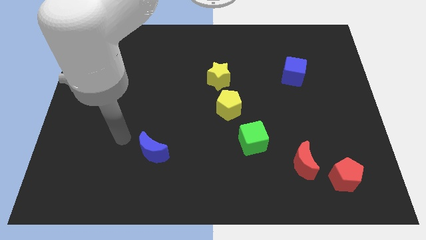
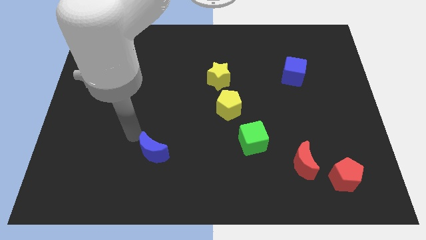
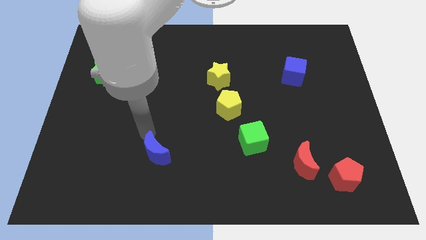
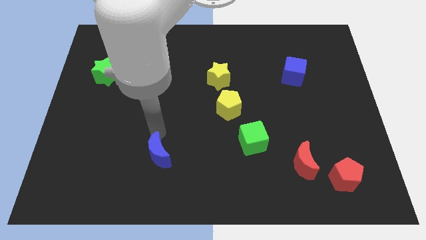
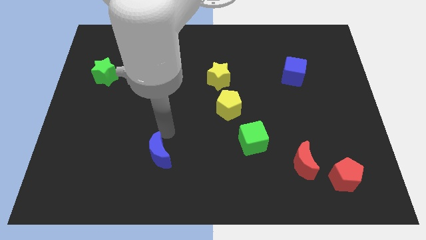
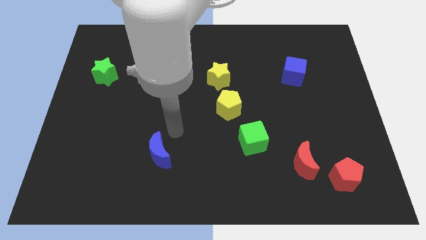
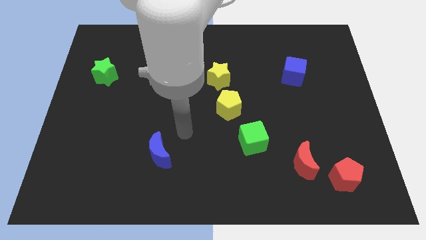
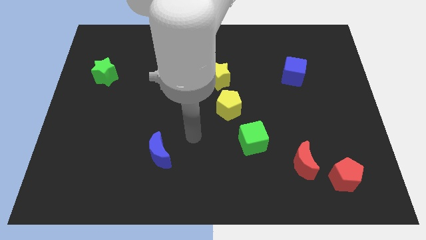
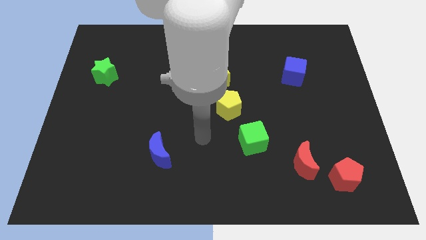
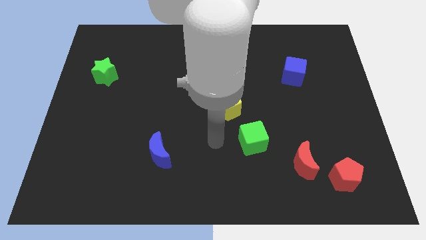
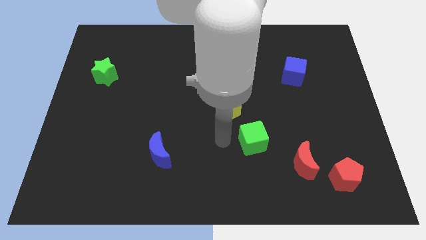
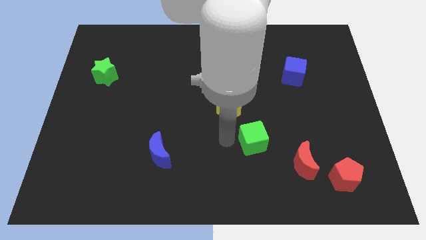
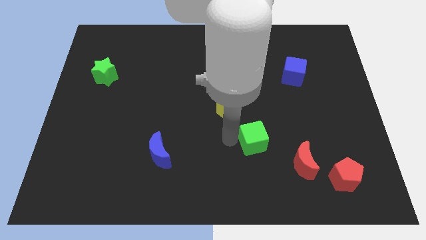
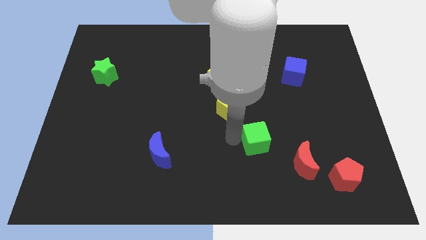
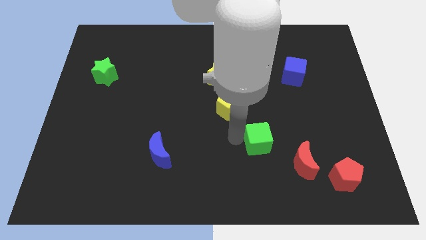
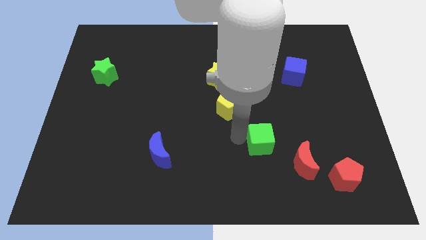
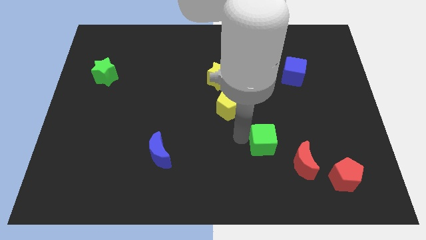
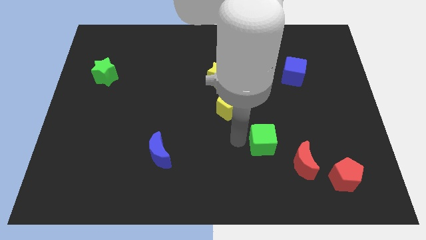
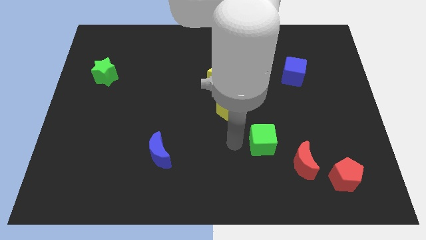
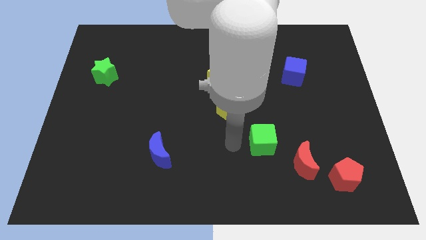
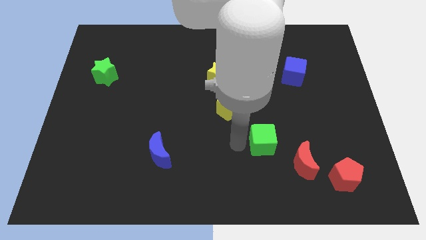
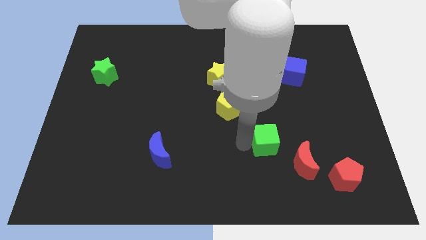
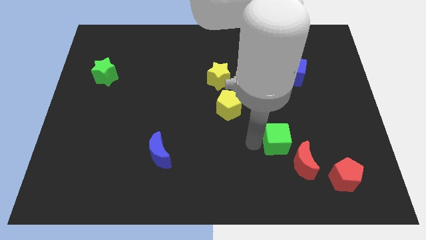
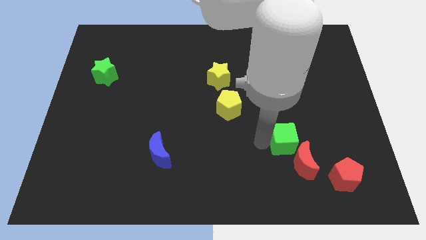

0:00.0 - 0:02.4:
slightly push the green cube to the right

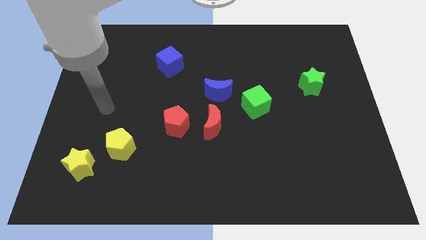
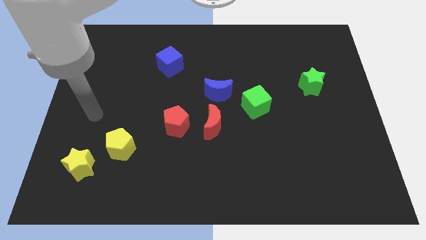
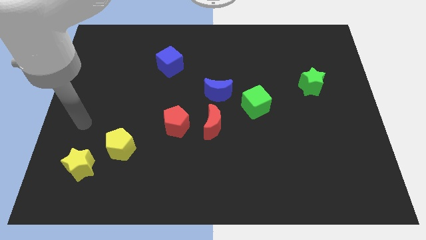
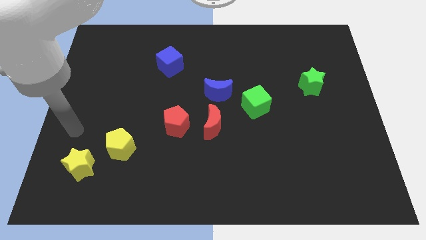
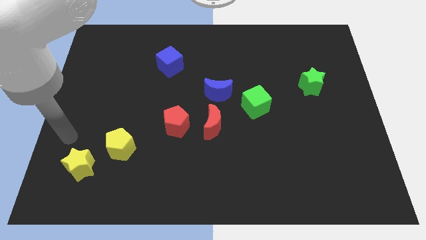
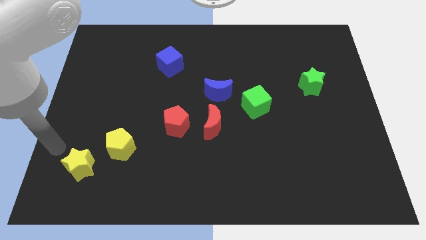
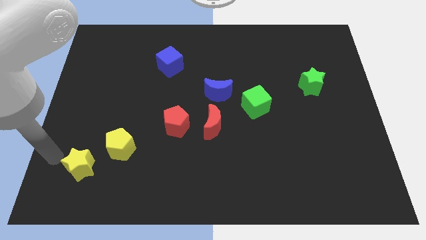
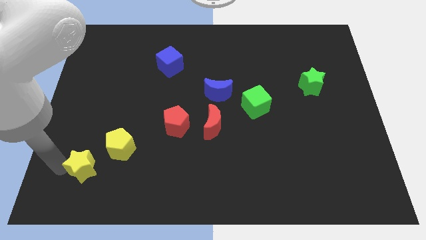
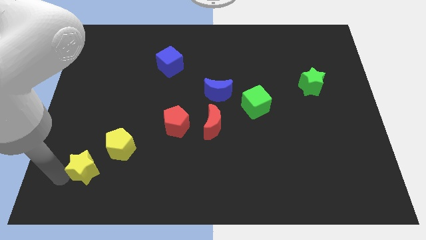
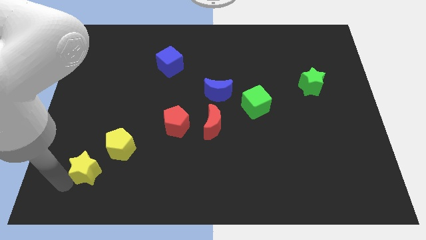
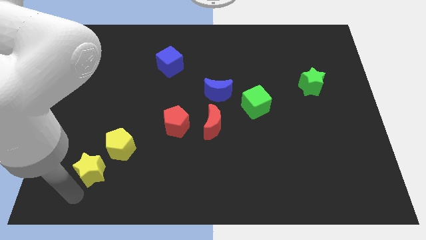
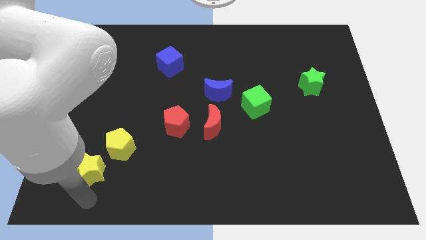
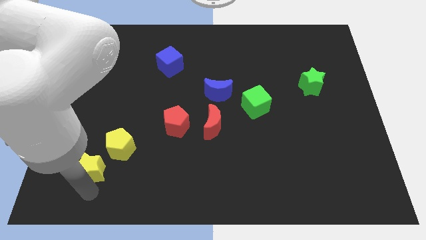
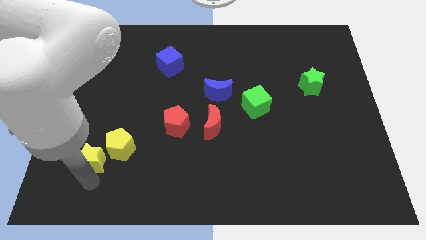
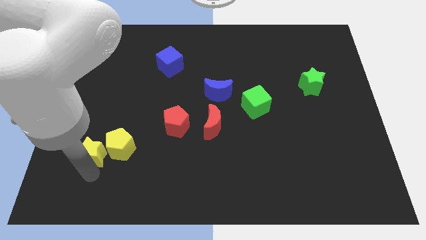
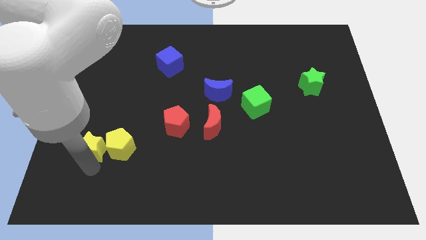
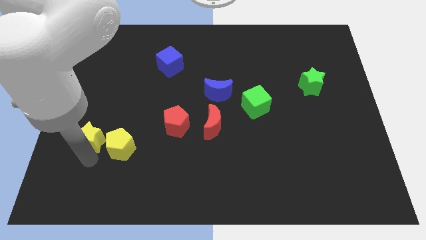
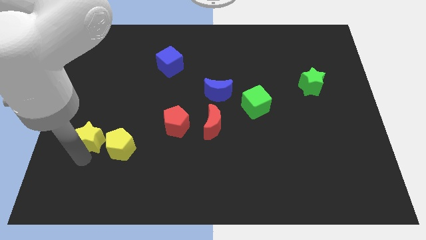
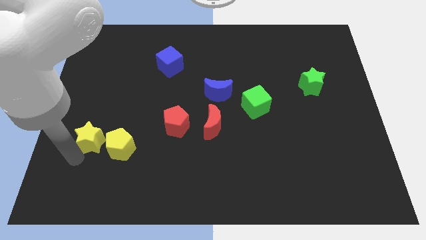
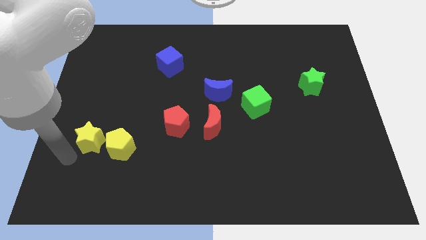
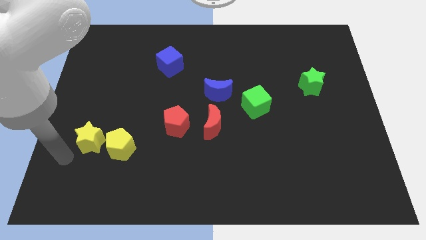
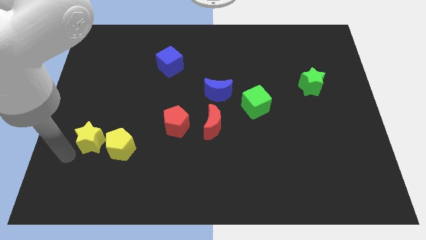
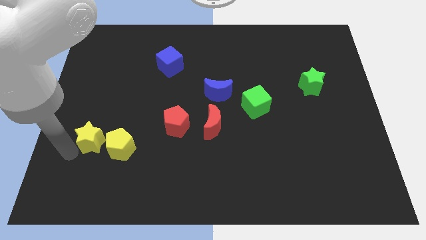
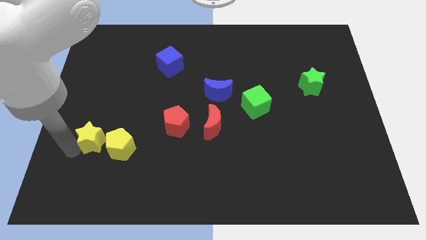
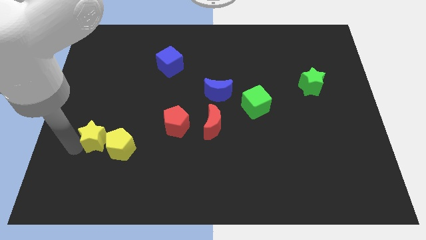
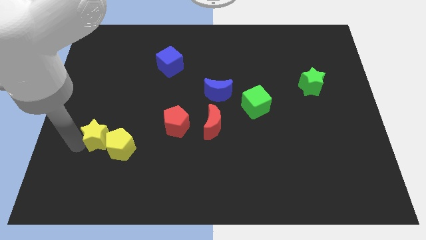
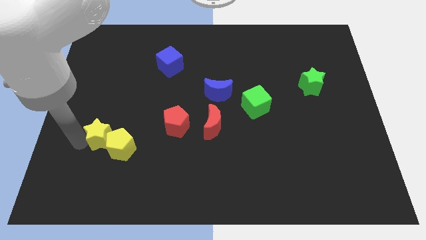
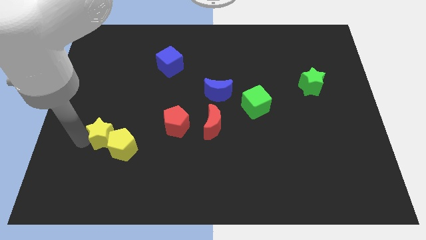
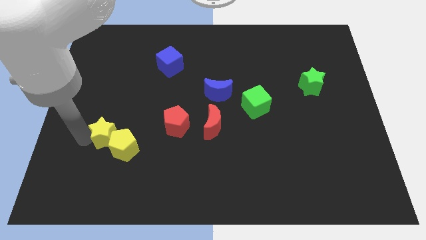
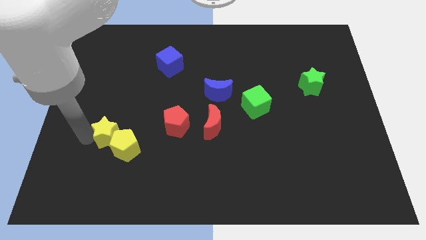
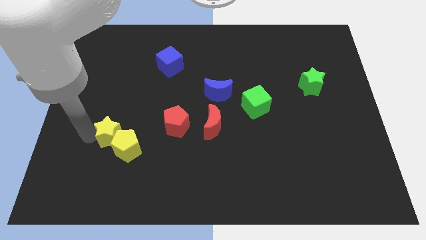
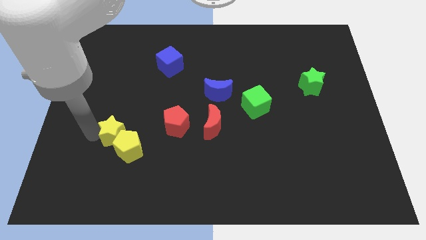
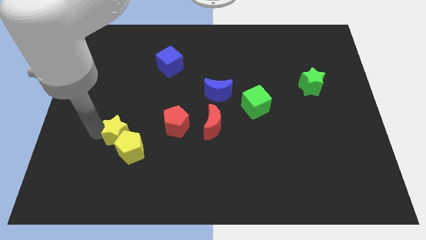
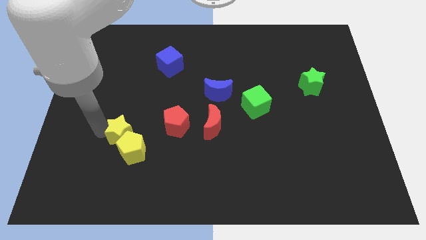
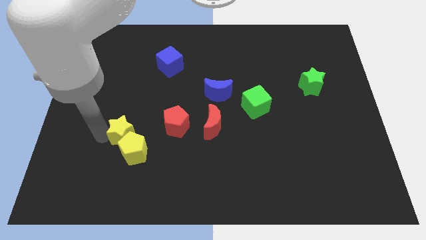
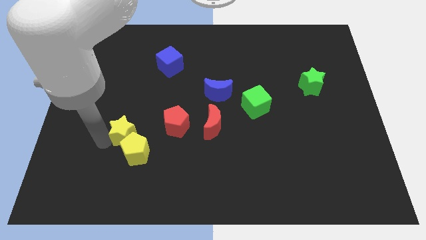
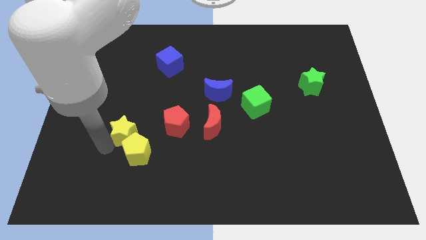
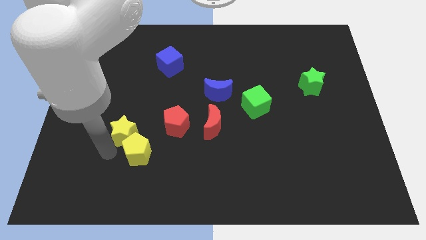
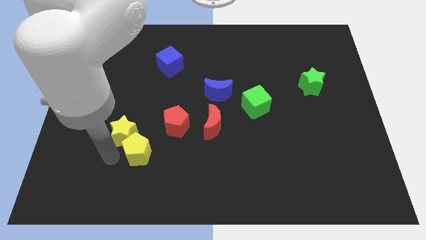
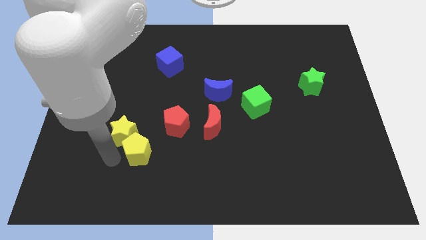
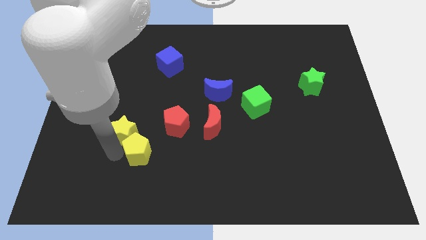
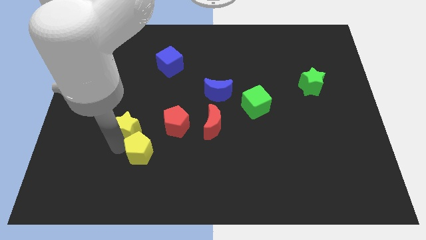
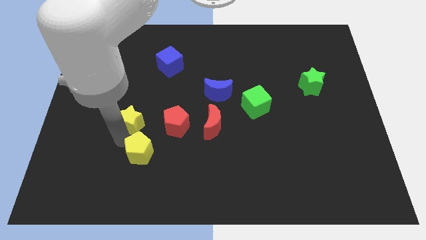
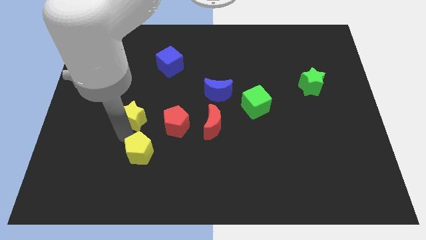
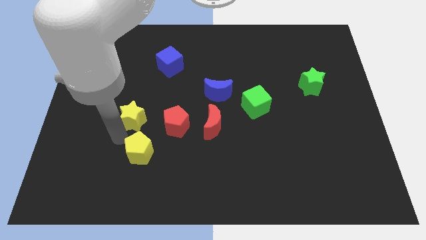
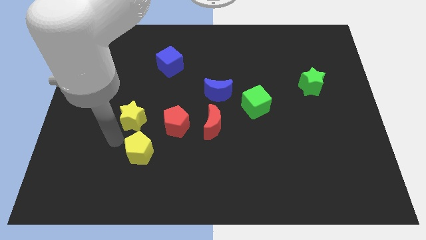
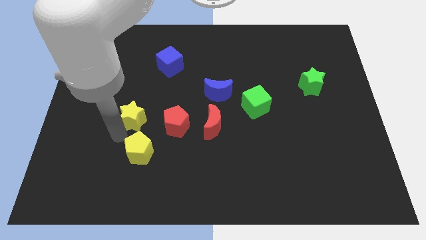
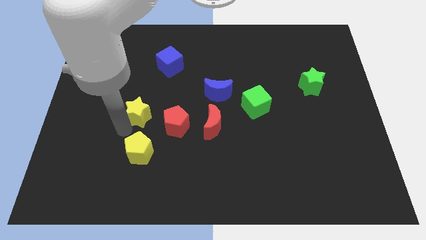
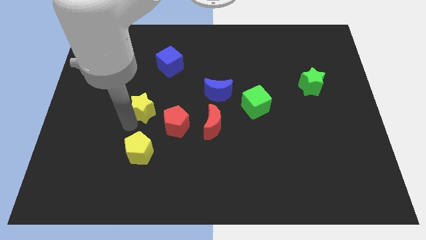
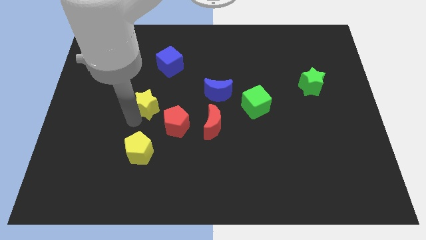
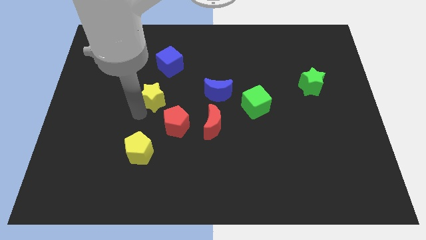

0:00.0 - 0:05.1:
push the yellow star upwards and then to the right
